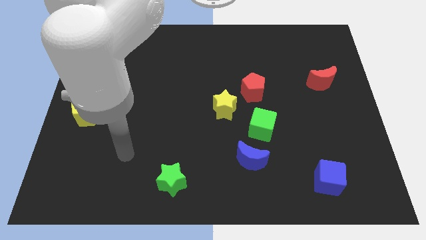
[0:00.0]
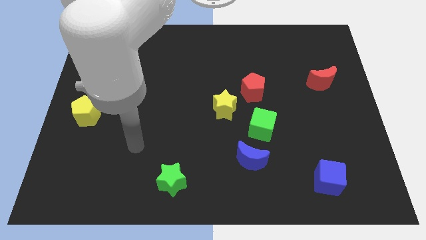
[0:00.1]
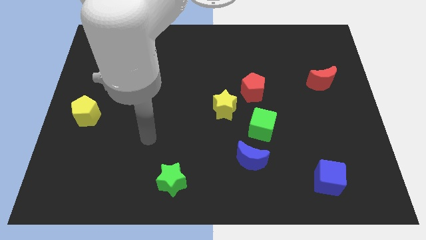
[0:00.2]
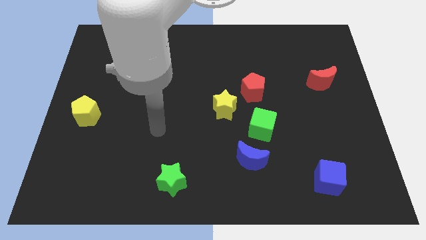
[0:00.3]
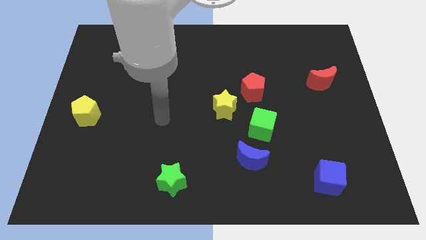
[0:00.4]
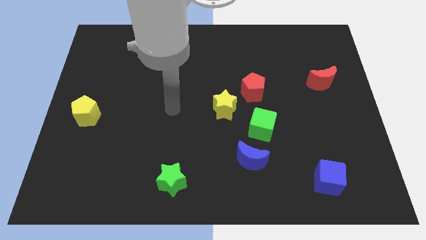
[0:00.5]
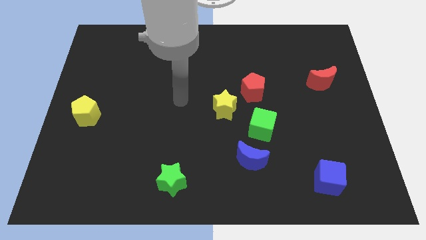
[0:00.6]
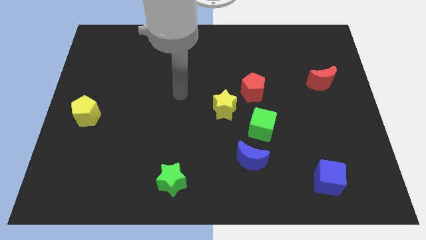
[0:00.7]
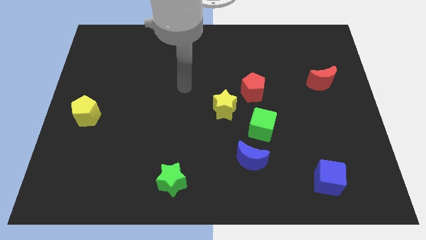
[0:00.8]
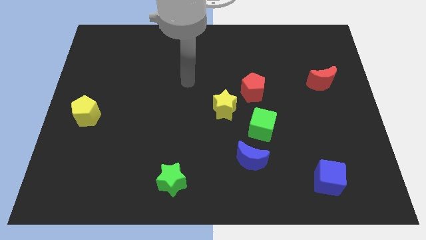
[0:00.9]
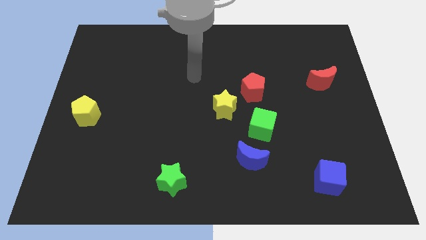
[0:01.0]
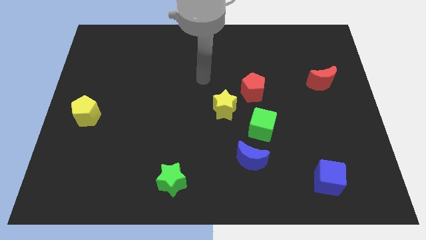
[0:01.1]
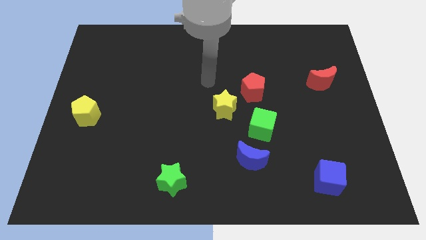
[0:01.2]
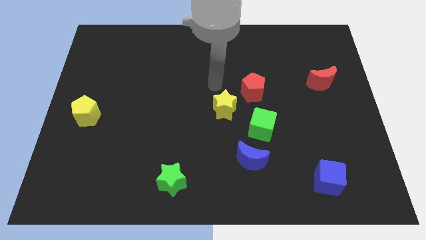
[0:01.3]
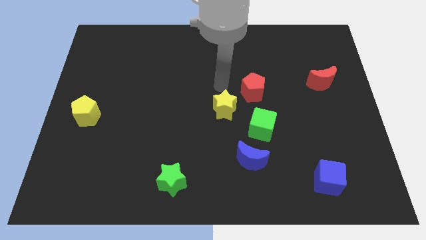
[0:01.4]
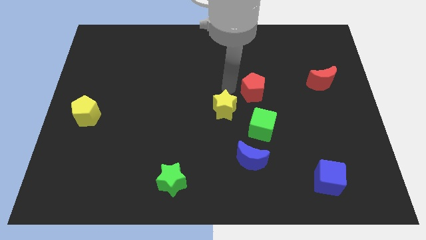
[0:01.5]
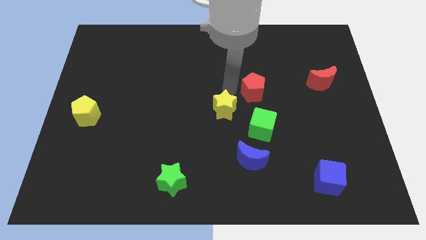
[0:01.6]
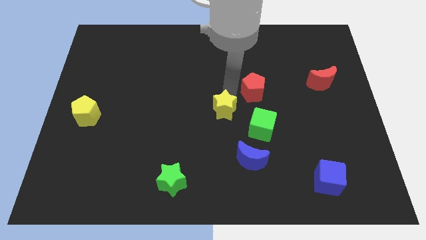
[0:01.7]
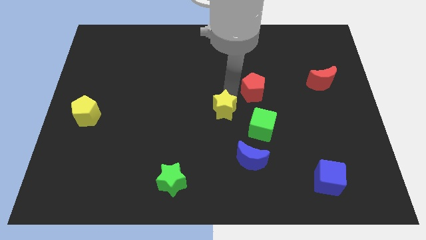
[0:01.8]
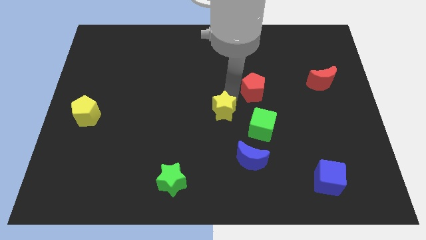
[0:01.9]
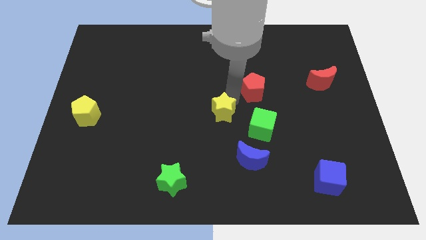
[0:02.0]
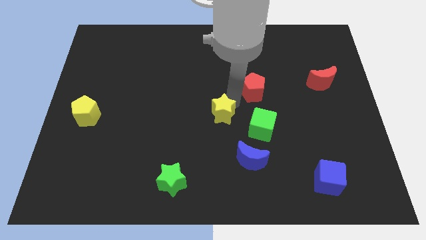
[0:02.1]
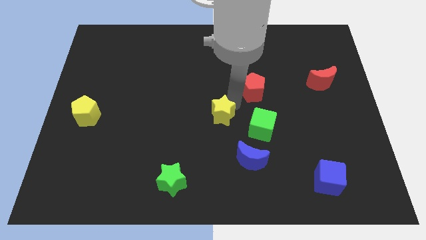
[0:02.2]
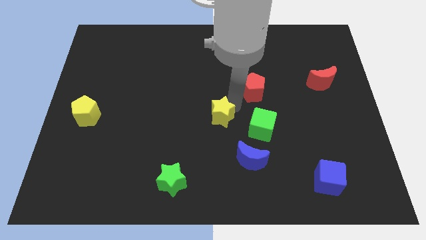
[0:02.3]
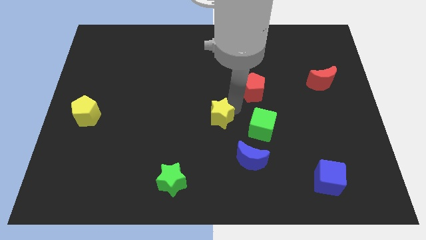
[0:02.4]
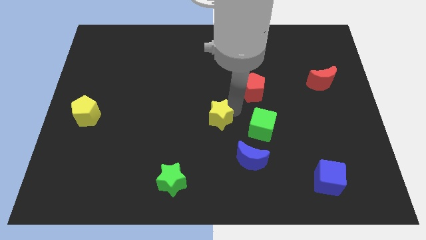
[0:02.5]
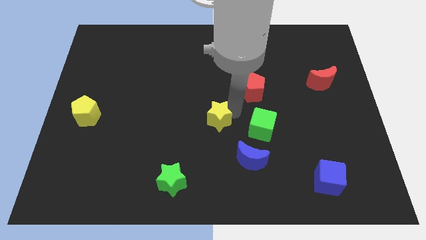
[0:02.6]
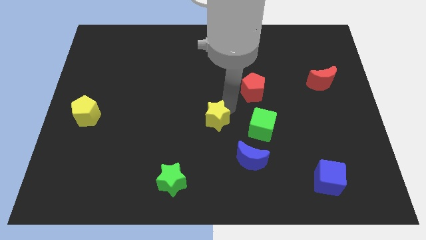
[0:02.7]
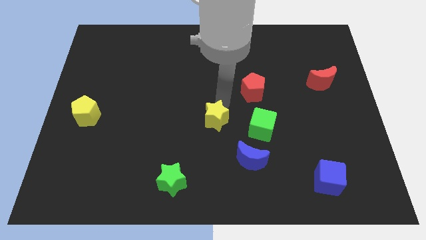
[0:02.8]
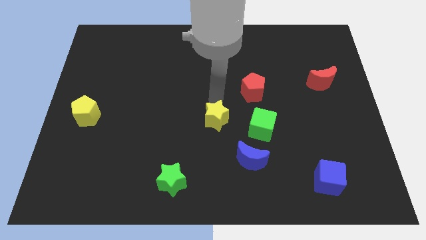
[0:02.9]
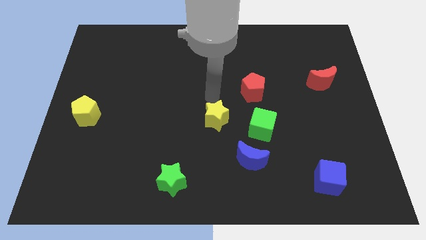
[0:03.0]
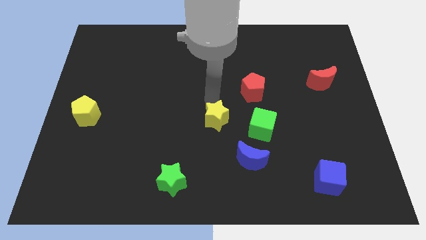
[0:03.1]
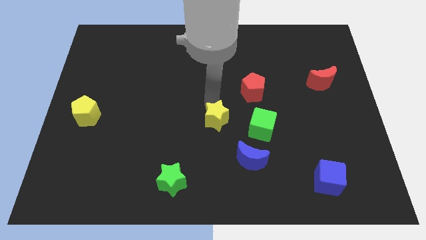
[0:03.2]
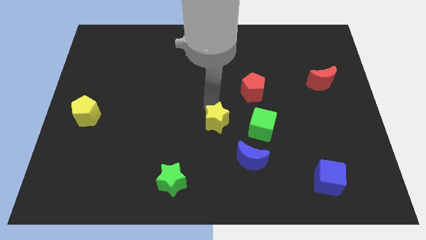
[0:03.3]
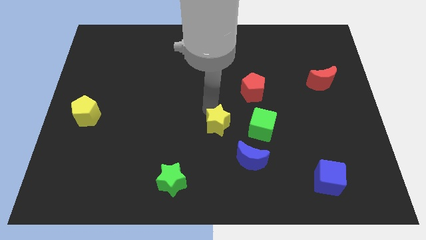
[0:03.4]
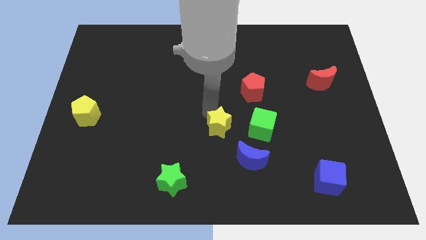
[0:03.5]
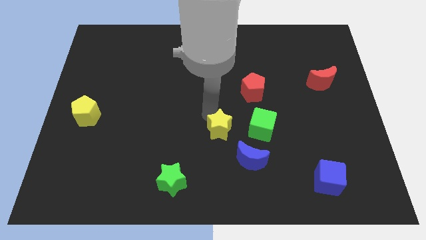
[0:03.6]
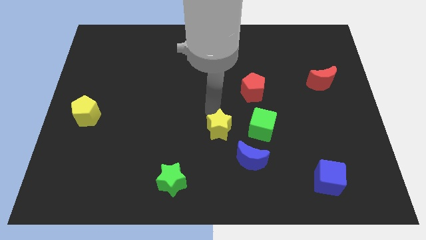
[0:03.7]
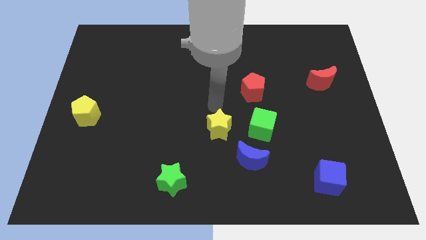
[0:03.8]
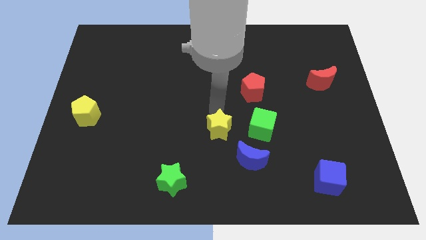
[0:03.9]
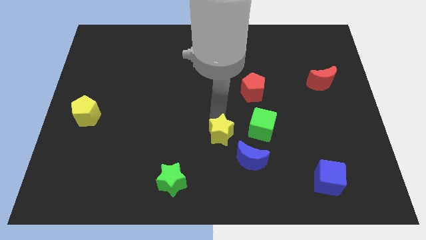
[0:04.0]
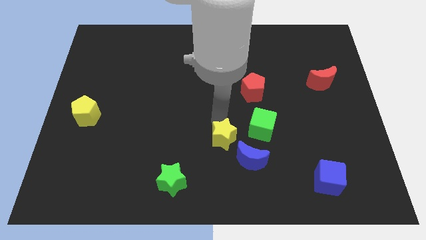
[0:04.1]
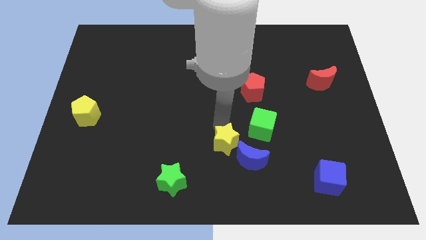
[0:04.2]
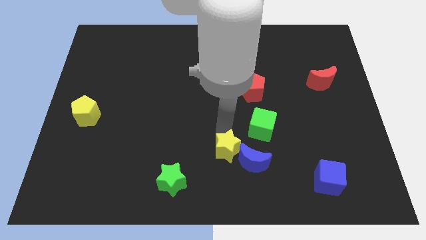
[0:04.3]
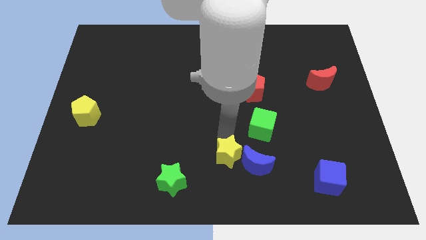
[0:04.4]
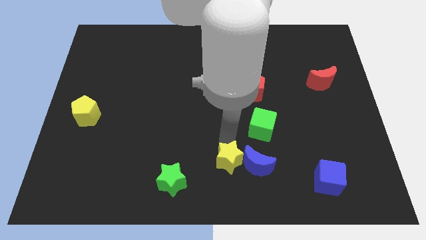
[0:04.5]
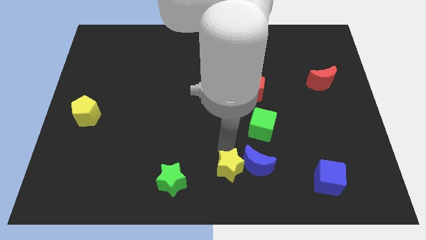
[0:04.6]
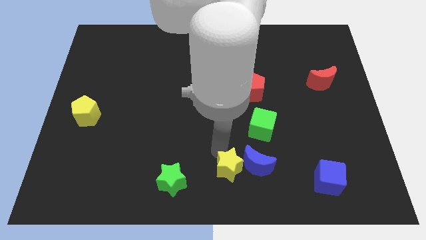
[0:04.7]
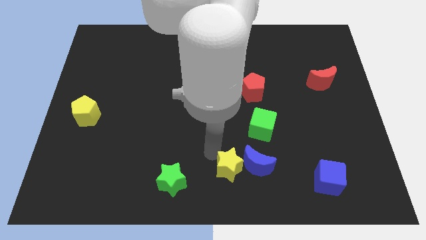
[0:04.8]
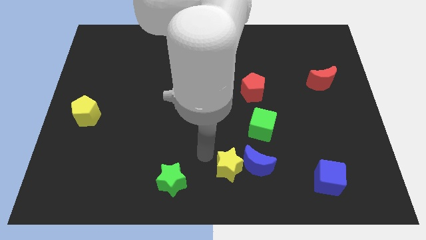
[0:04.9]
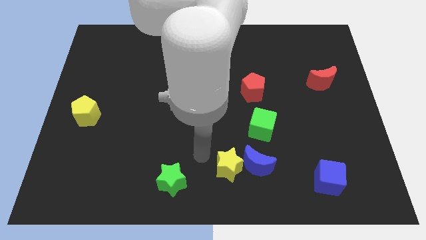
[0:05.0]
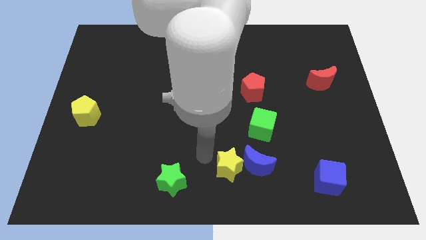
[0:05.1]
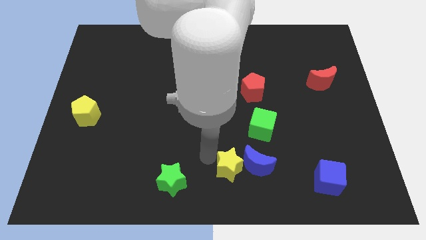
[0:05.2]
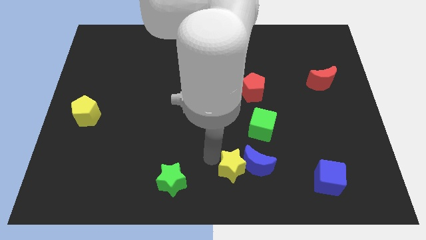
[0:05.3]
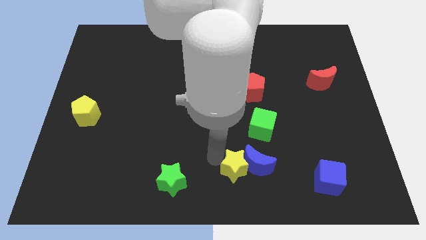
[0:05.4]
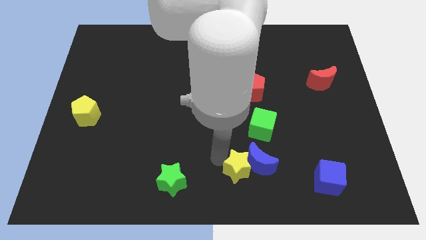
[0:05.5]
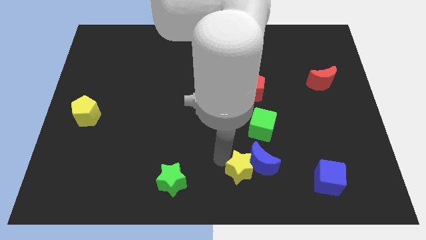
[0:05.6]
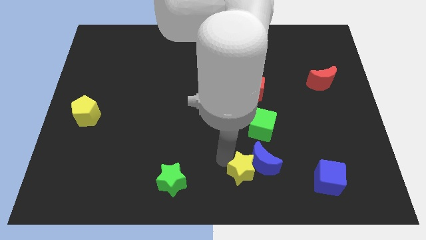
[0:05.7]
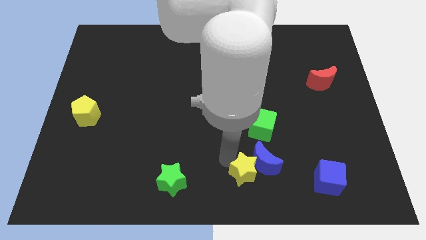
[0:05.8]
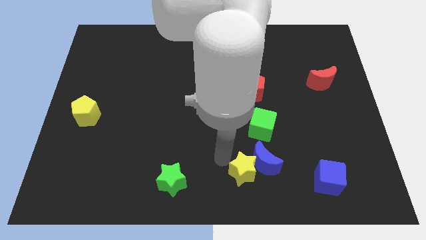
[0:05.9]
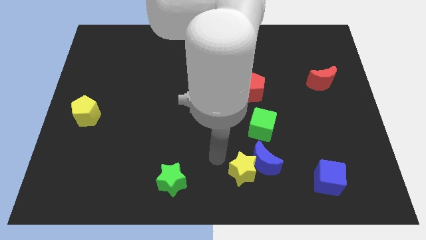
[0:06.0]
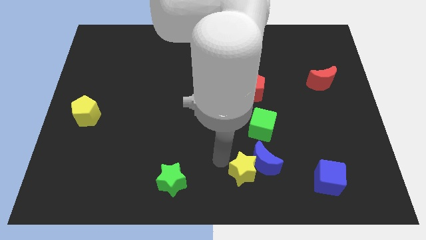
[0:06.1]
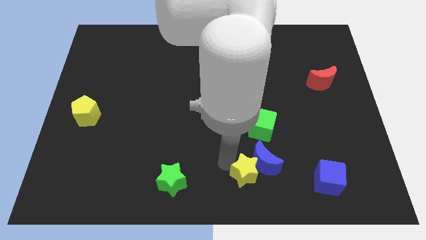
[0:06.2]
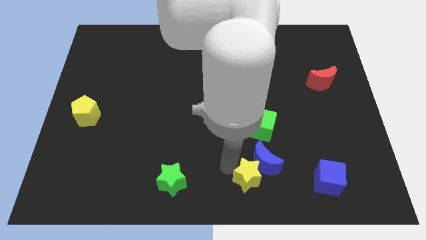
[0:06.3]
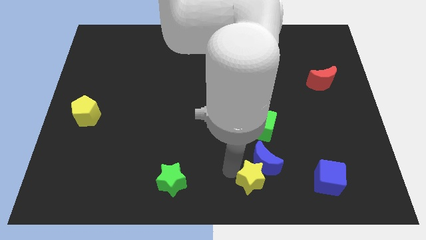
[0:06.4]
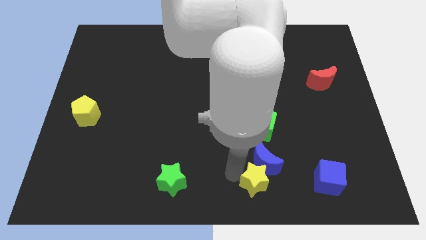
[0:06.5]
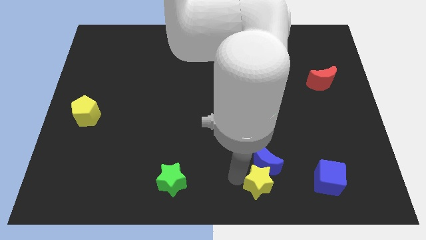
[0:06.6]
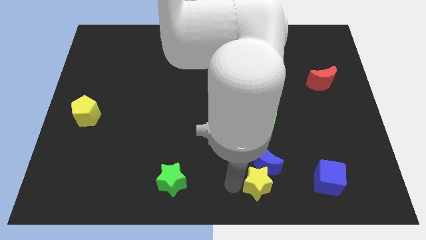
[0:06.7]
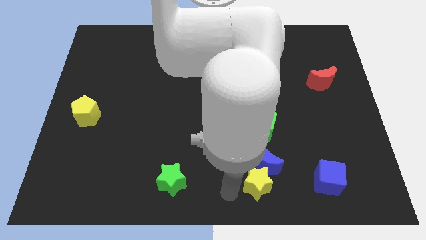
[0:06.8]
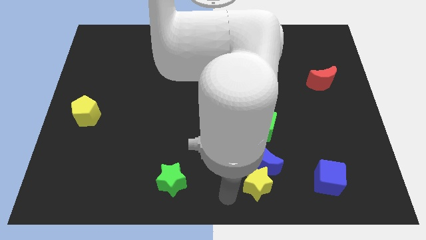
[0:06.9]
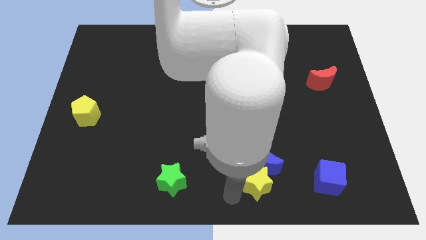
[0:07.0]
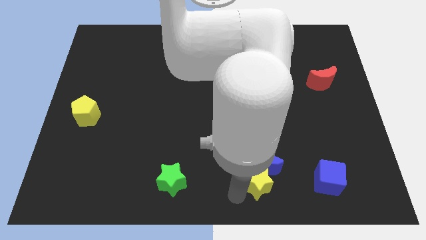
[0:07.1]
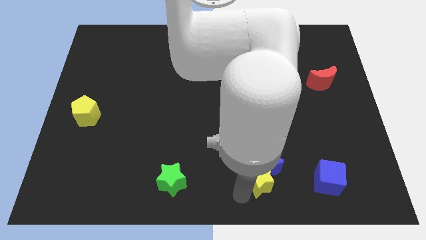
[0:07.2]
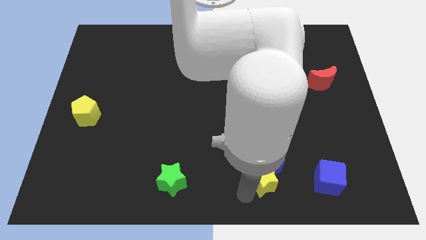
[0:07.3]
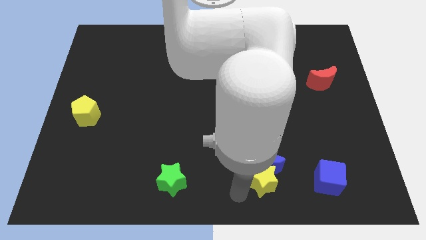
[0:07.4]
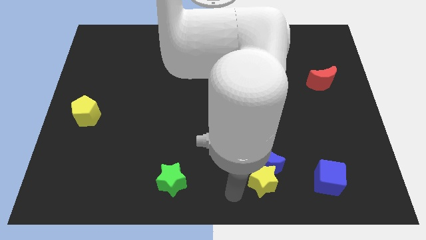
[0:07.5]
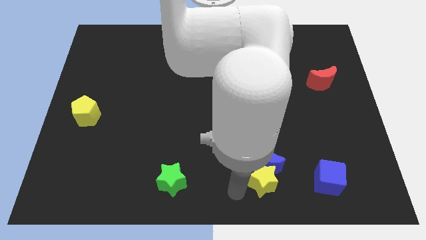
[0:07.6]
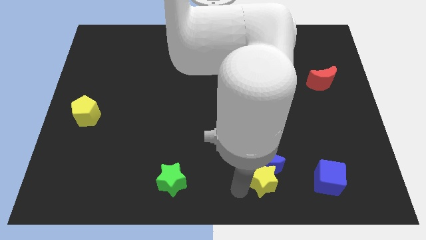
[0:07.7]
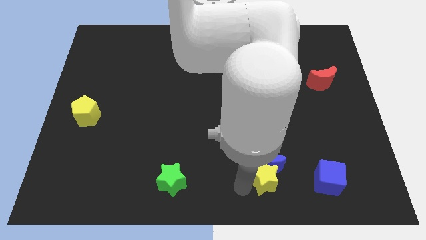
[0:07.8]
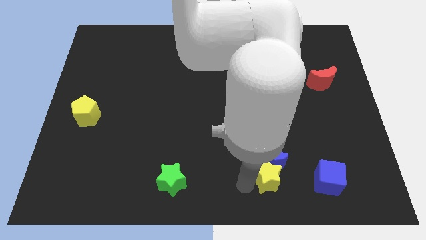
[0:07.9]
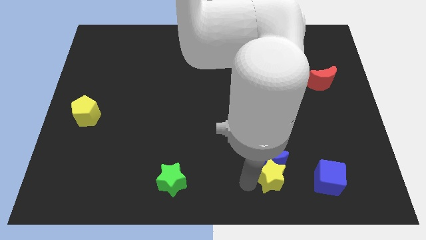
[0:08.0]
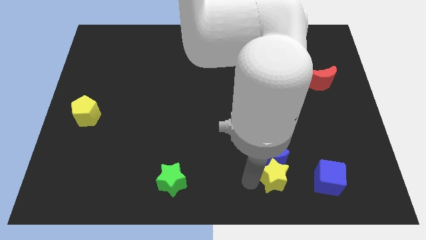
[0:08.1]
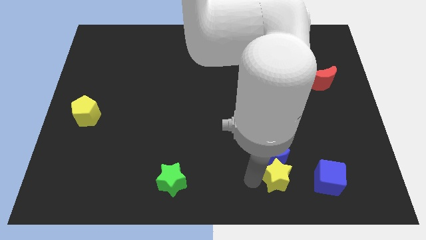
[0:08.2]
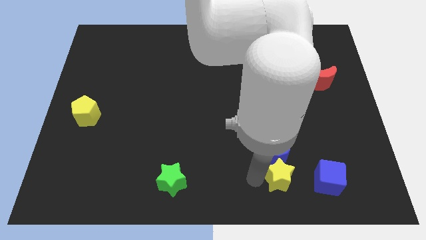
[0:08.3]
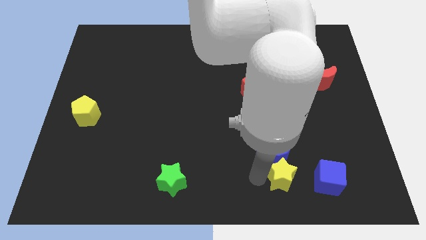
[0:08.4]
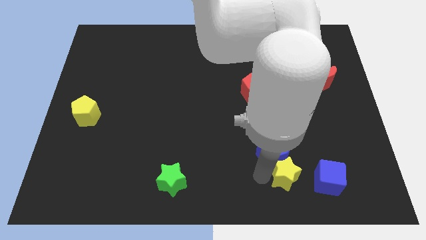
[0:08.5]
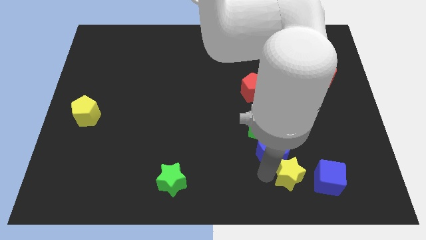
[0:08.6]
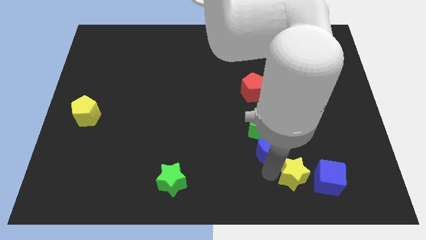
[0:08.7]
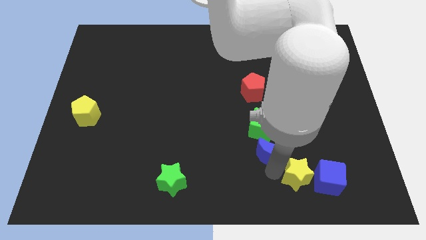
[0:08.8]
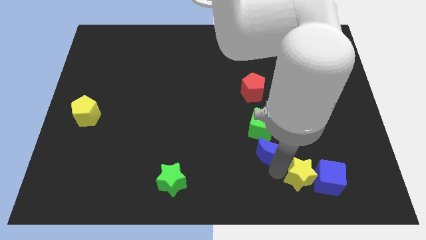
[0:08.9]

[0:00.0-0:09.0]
put the yellow star towards the blue cube
